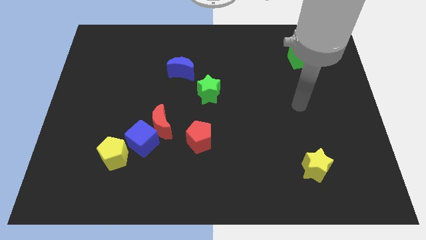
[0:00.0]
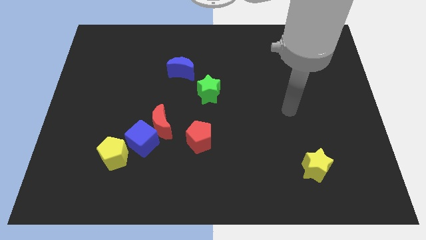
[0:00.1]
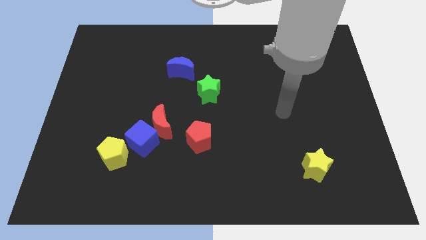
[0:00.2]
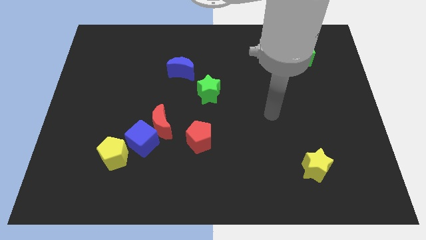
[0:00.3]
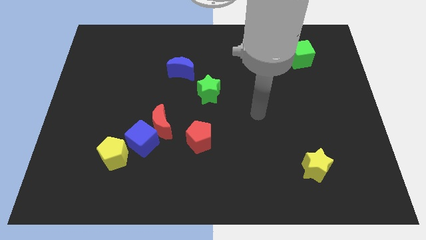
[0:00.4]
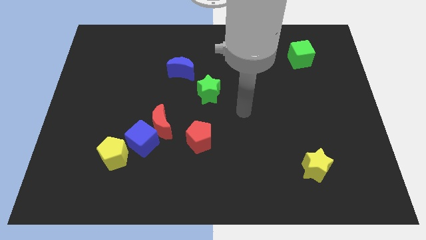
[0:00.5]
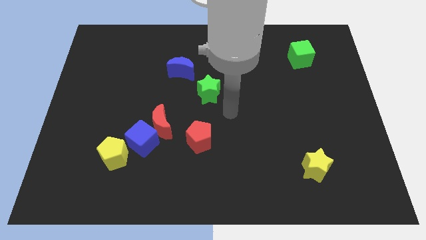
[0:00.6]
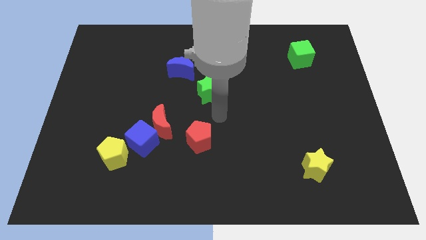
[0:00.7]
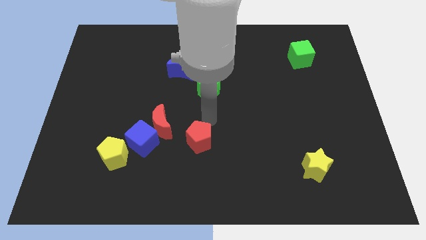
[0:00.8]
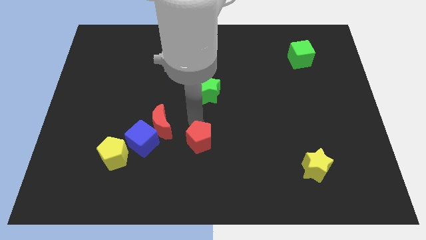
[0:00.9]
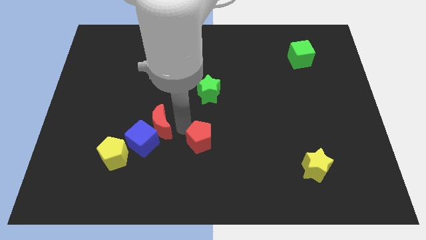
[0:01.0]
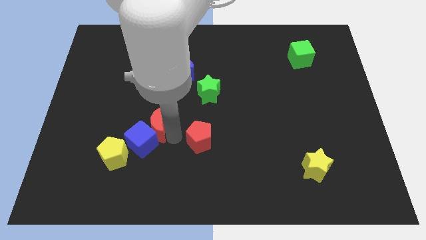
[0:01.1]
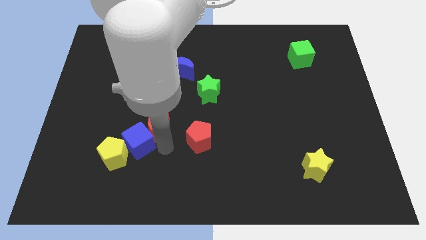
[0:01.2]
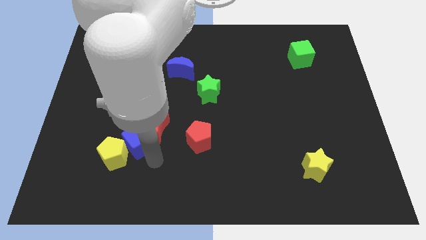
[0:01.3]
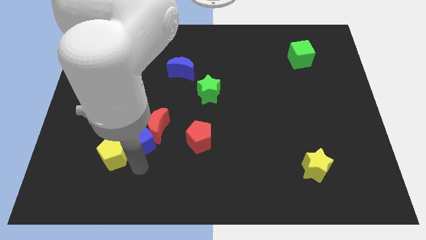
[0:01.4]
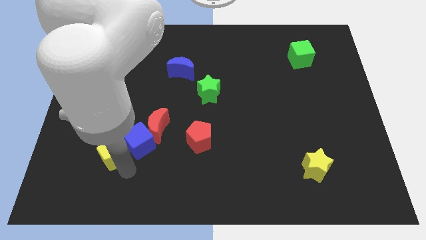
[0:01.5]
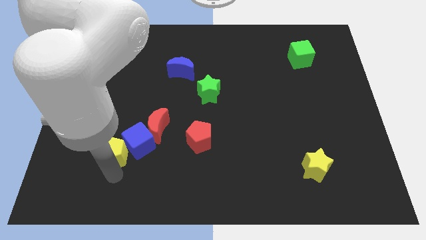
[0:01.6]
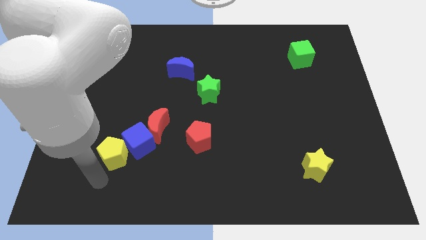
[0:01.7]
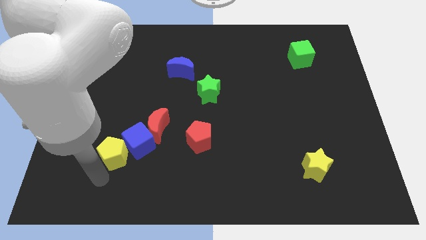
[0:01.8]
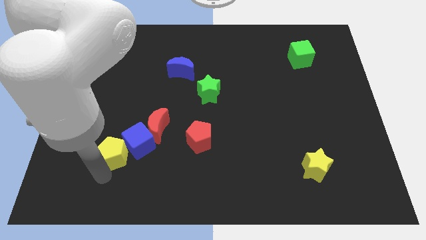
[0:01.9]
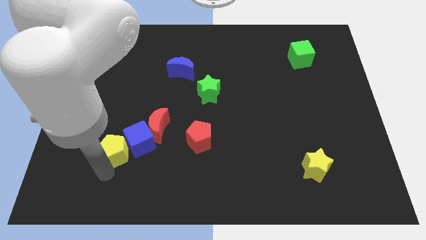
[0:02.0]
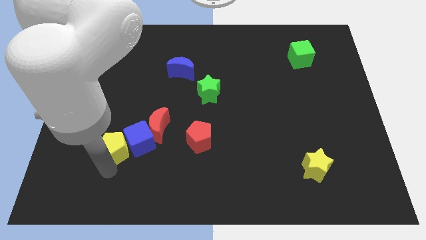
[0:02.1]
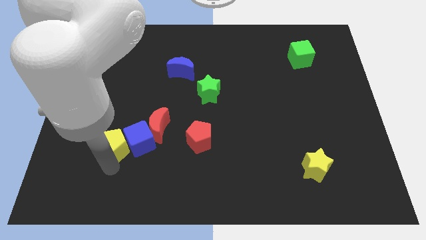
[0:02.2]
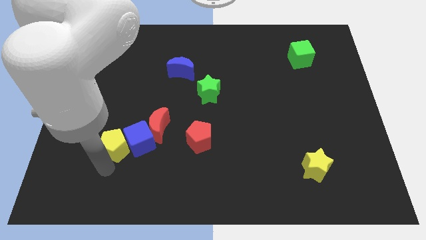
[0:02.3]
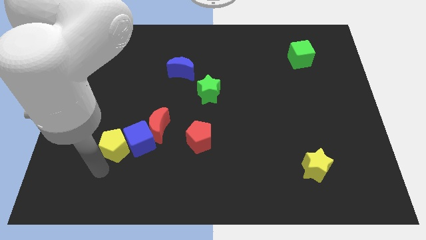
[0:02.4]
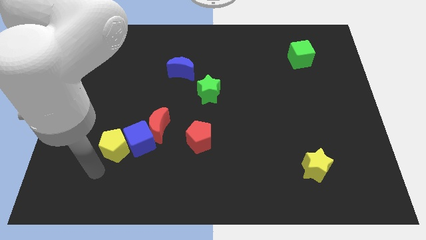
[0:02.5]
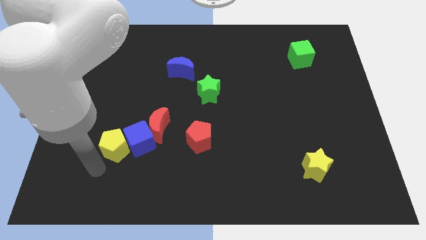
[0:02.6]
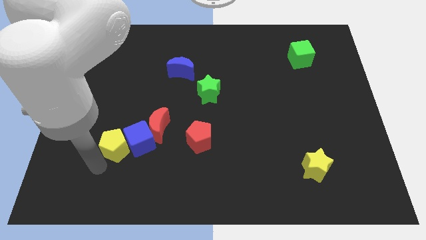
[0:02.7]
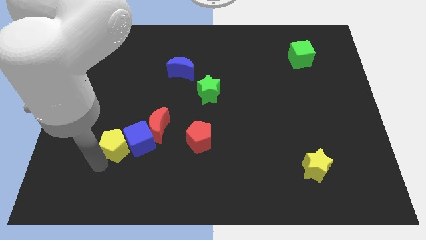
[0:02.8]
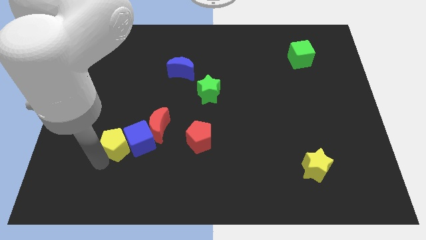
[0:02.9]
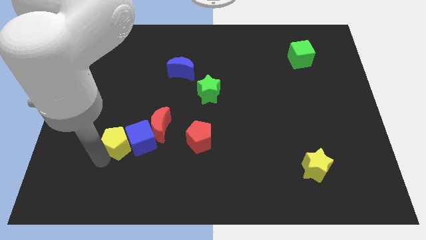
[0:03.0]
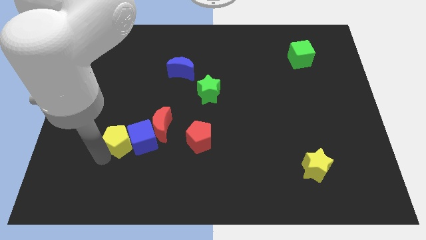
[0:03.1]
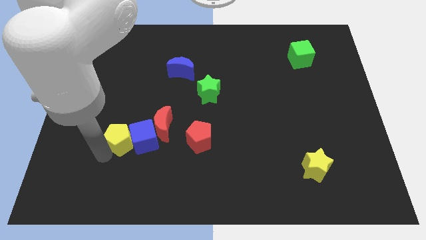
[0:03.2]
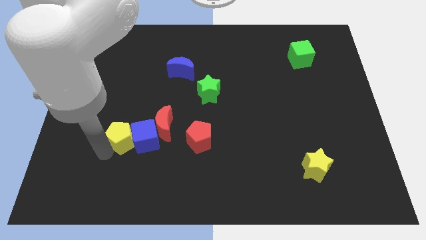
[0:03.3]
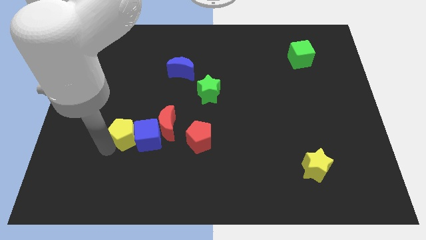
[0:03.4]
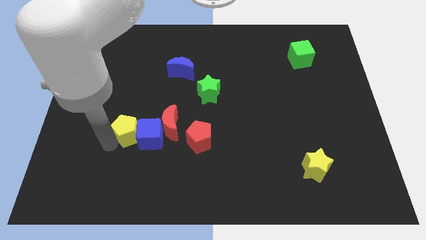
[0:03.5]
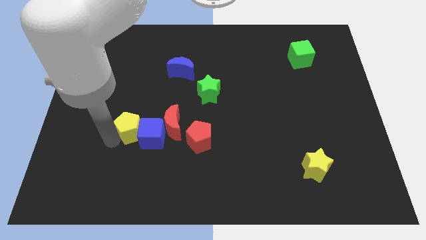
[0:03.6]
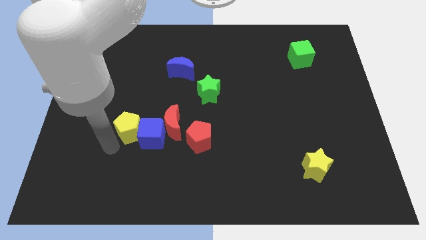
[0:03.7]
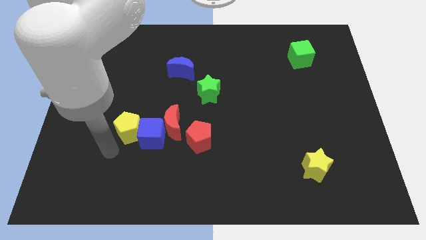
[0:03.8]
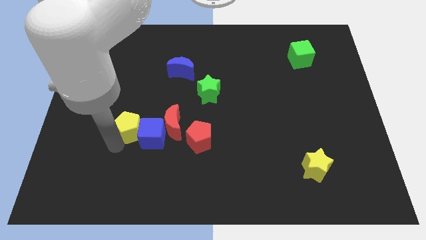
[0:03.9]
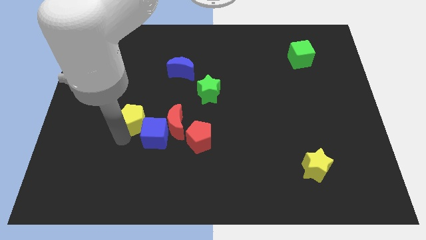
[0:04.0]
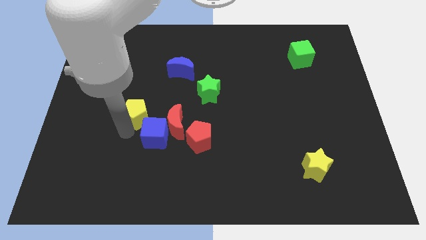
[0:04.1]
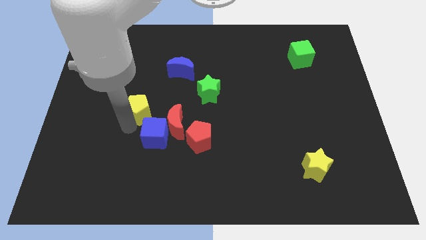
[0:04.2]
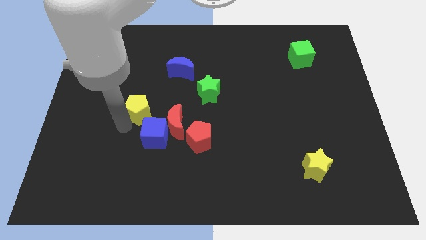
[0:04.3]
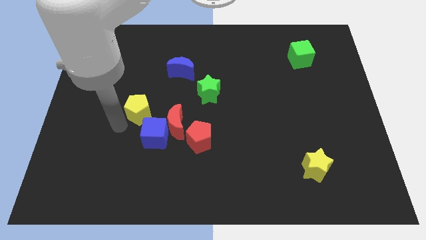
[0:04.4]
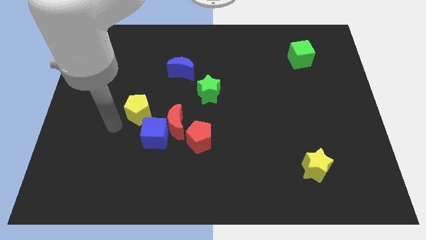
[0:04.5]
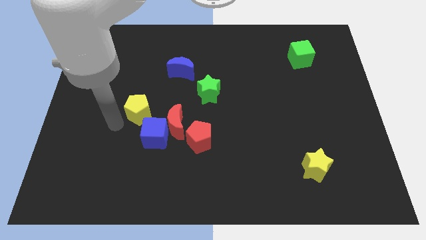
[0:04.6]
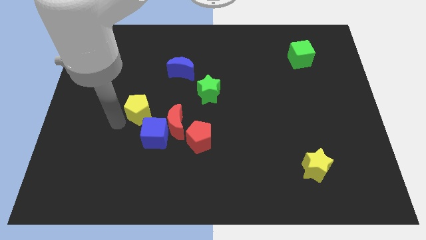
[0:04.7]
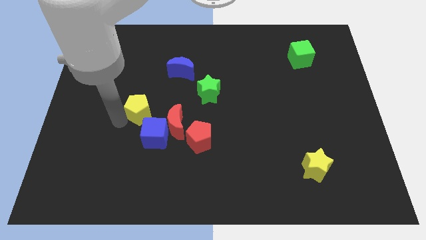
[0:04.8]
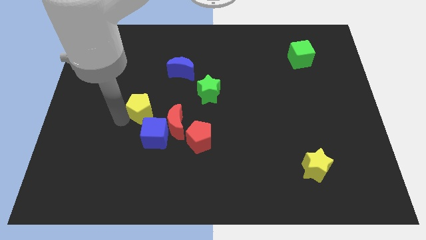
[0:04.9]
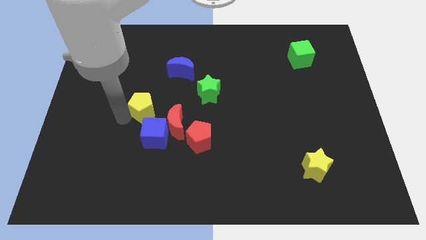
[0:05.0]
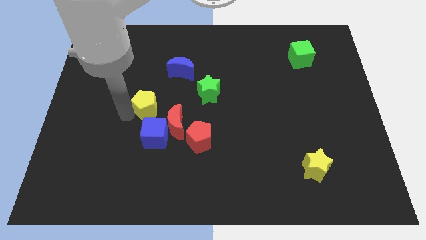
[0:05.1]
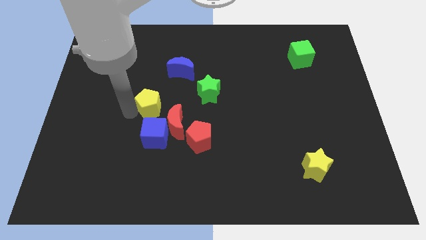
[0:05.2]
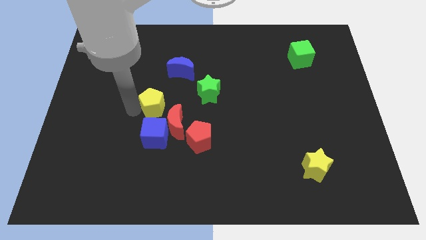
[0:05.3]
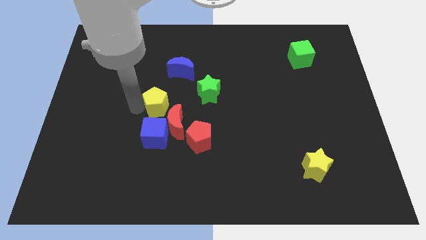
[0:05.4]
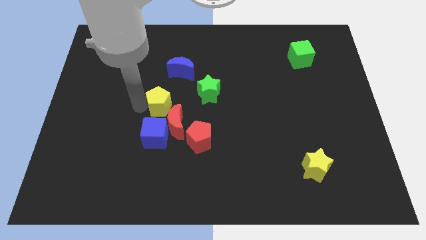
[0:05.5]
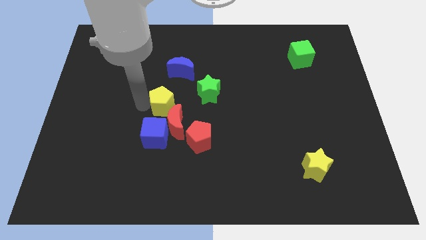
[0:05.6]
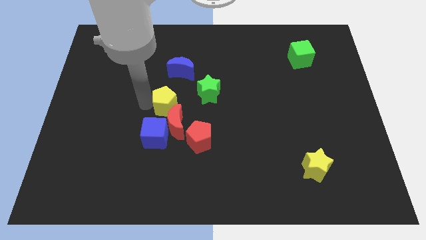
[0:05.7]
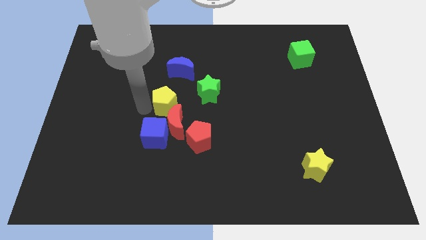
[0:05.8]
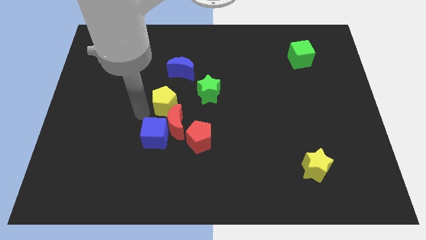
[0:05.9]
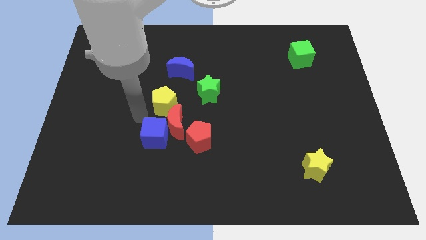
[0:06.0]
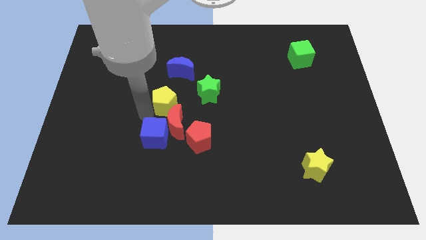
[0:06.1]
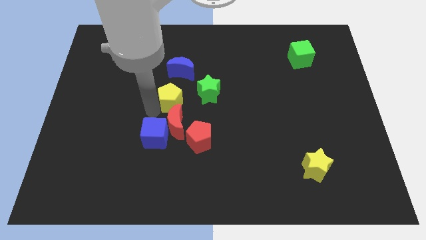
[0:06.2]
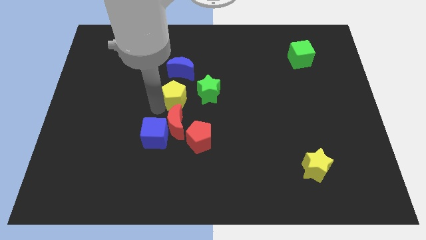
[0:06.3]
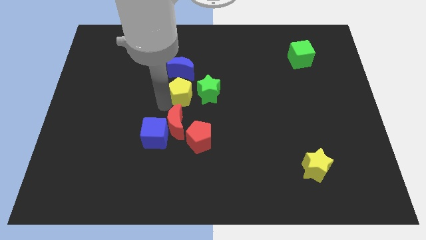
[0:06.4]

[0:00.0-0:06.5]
move the yellow pentagon upwards and to the right diagonally

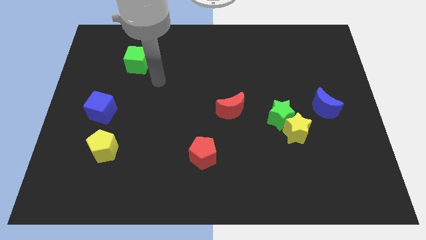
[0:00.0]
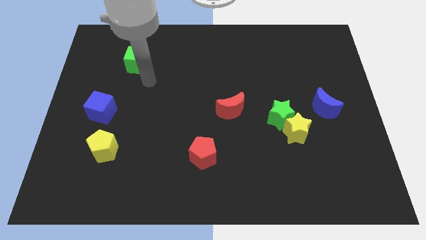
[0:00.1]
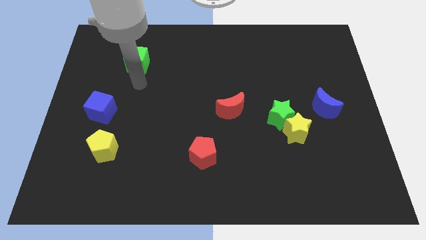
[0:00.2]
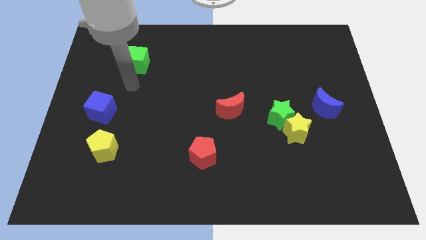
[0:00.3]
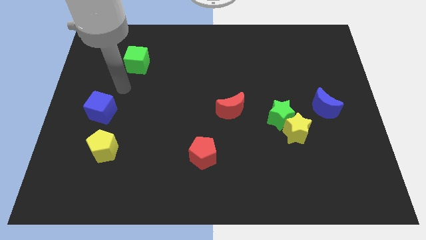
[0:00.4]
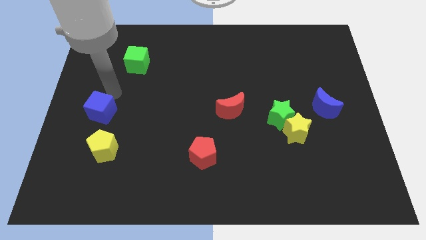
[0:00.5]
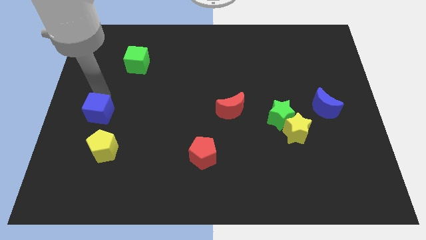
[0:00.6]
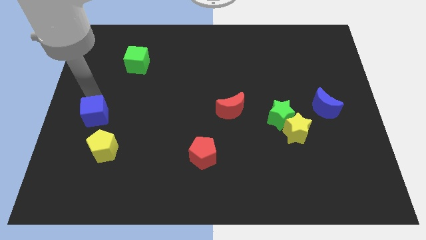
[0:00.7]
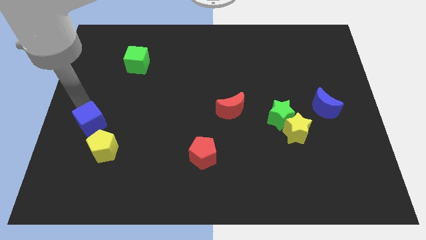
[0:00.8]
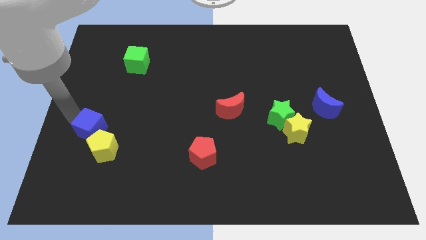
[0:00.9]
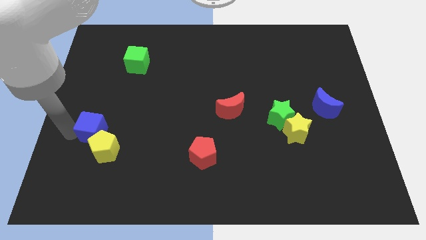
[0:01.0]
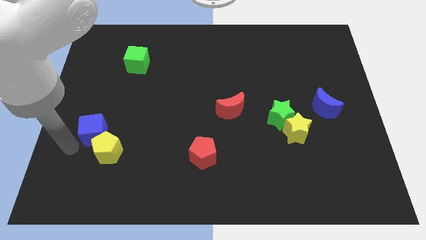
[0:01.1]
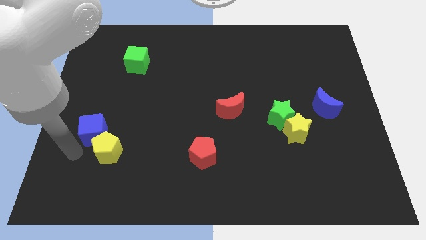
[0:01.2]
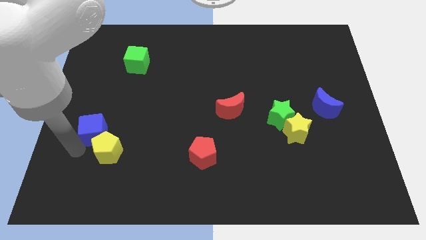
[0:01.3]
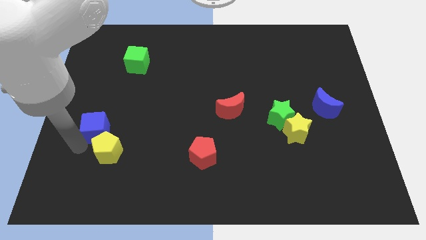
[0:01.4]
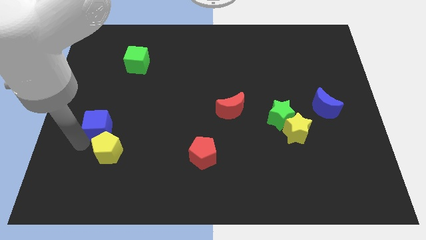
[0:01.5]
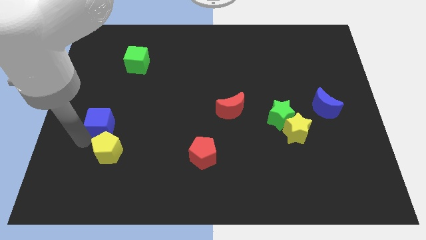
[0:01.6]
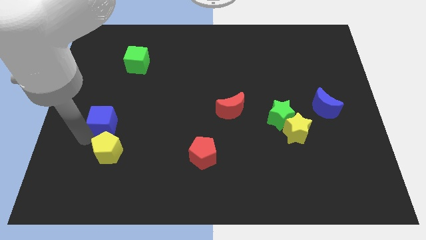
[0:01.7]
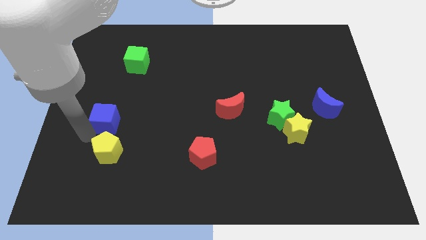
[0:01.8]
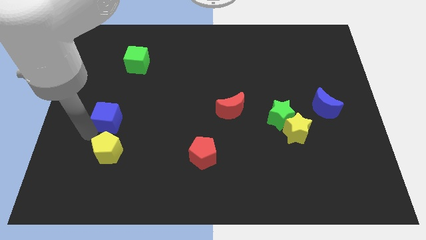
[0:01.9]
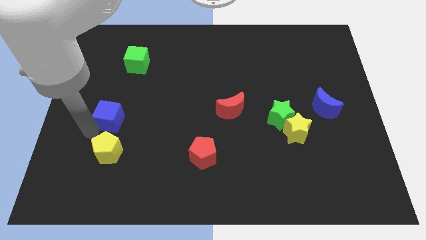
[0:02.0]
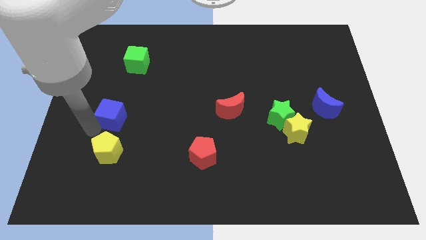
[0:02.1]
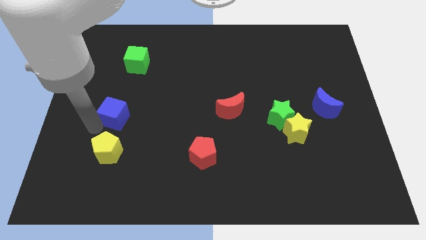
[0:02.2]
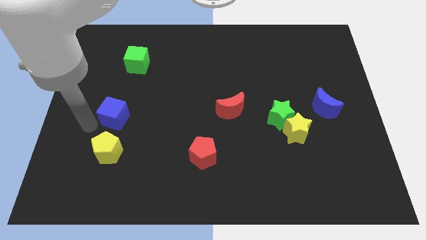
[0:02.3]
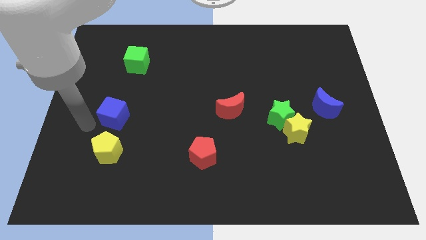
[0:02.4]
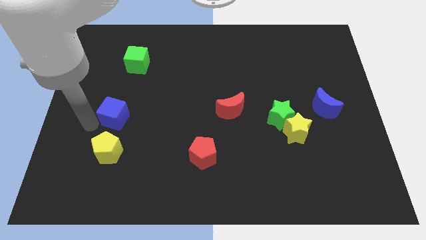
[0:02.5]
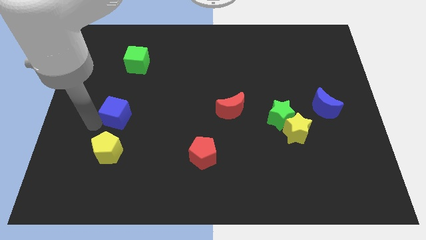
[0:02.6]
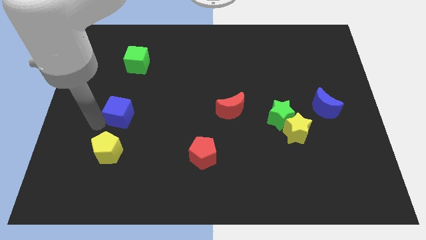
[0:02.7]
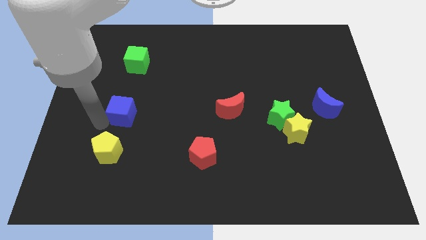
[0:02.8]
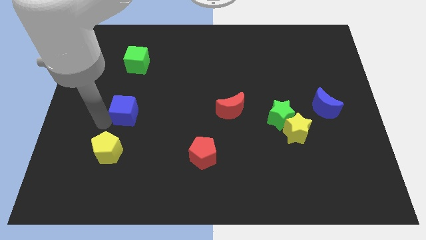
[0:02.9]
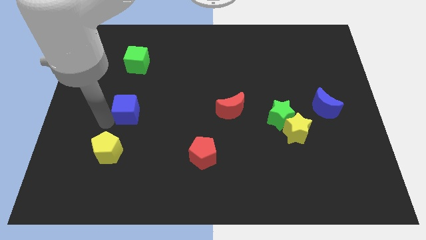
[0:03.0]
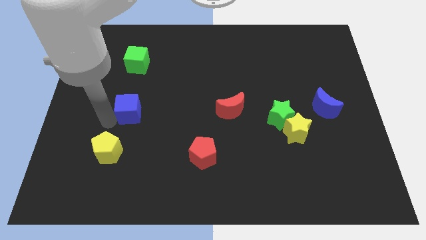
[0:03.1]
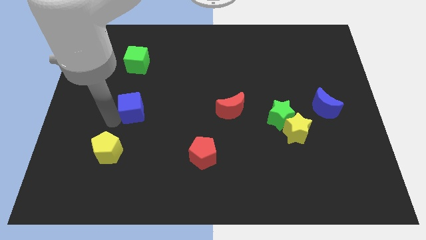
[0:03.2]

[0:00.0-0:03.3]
slightly move the blue cube right
